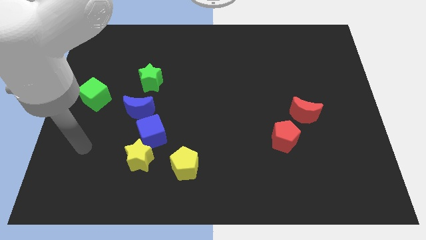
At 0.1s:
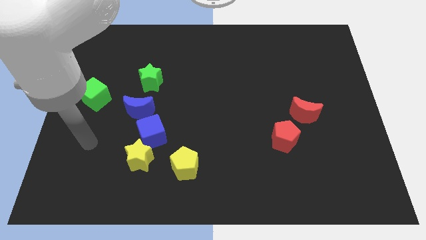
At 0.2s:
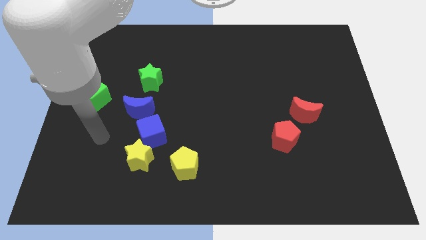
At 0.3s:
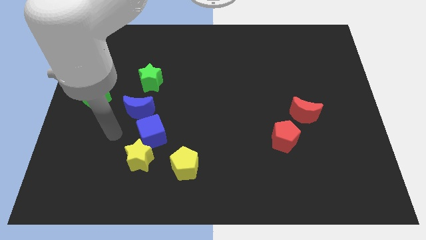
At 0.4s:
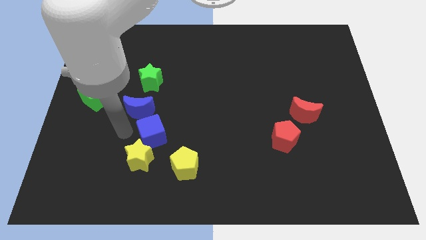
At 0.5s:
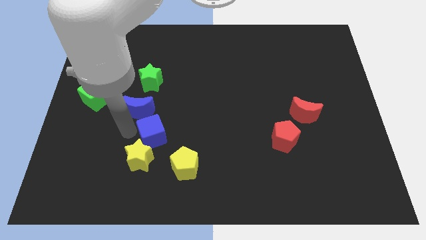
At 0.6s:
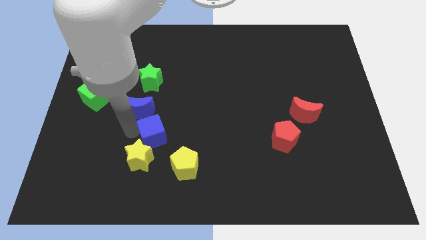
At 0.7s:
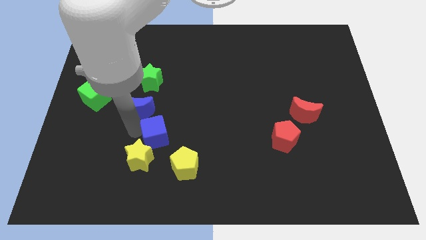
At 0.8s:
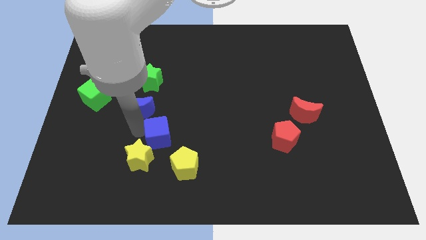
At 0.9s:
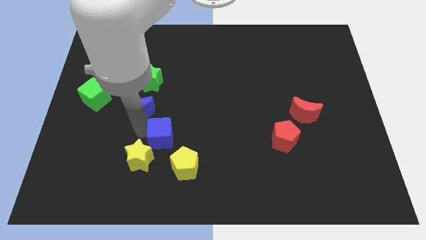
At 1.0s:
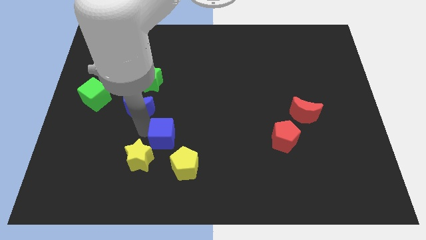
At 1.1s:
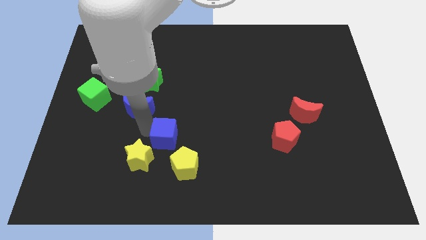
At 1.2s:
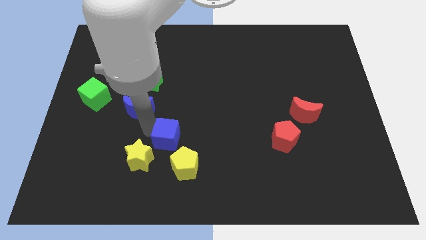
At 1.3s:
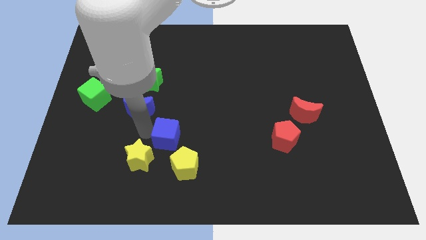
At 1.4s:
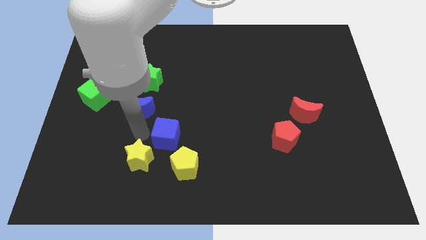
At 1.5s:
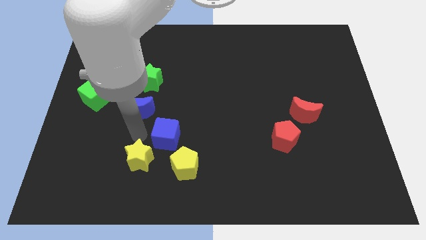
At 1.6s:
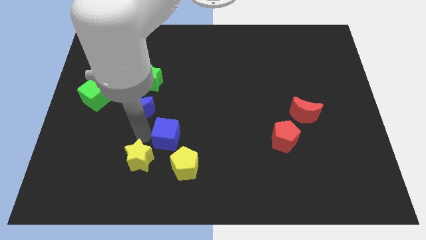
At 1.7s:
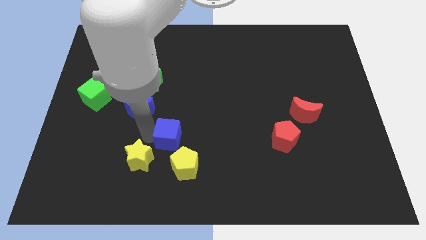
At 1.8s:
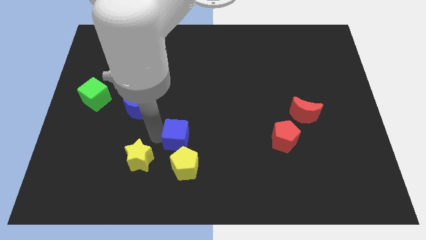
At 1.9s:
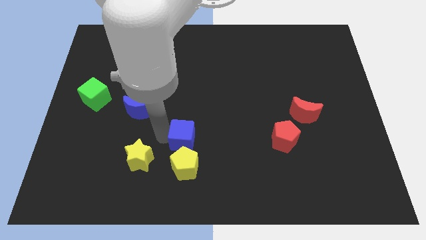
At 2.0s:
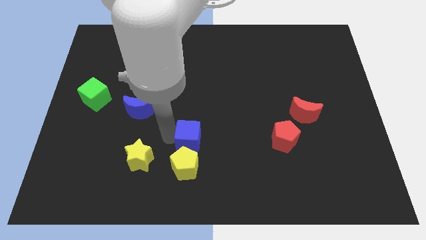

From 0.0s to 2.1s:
separate the blue cube from the yellow star and blue moon

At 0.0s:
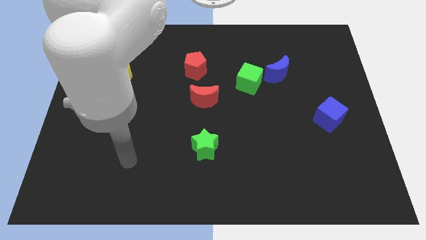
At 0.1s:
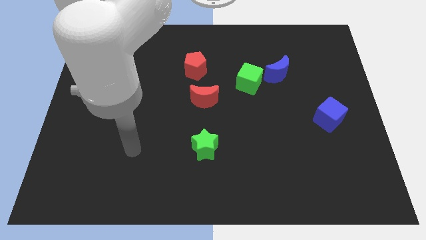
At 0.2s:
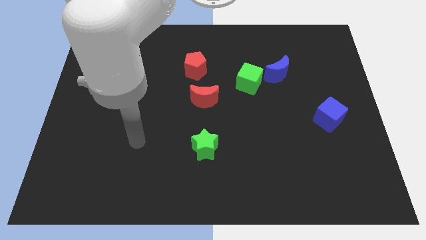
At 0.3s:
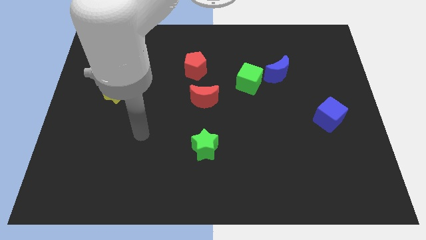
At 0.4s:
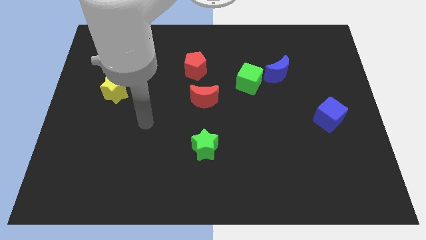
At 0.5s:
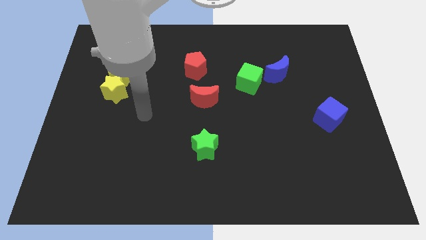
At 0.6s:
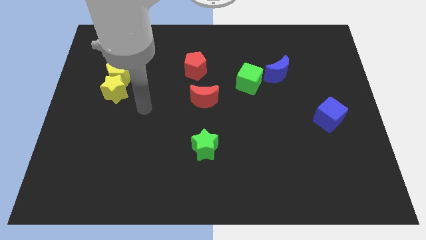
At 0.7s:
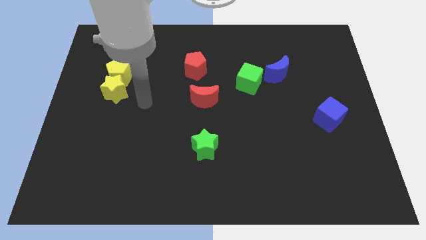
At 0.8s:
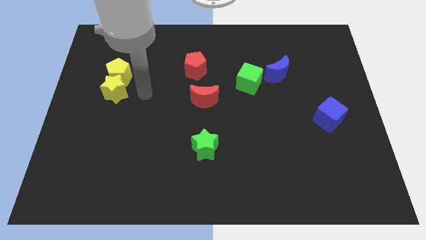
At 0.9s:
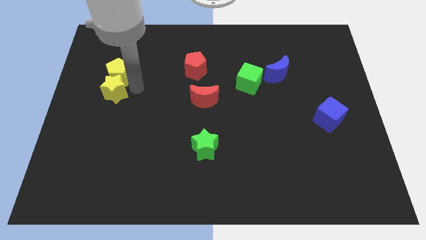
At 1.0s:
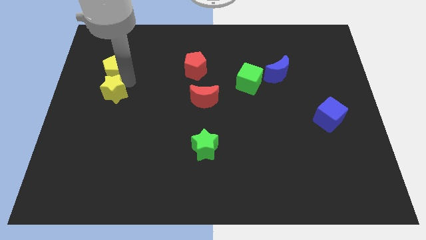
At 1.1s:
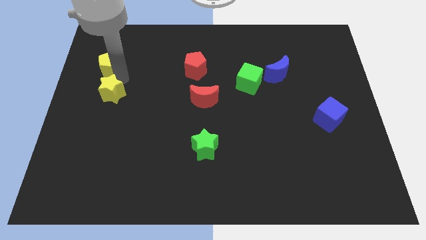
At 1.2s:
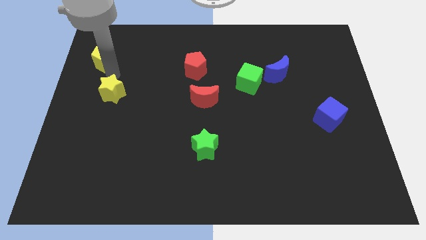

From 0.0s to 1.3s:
pull the yellow star apart from the yellow pentagon

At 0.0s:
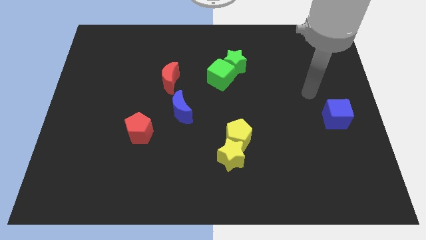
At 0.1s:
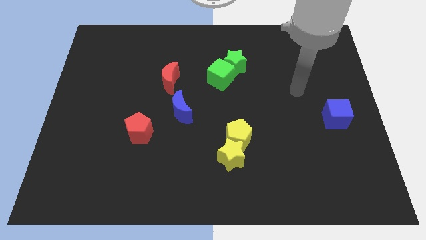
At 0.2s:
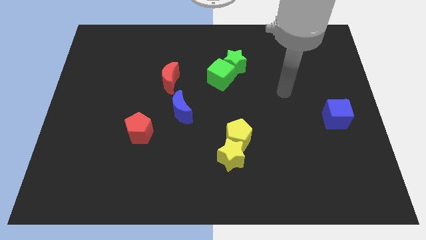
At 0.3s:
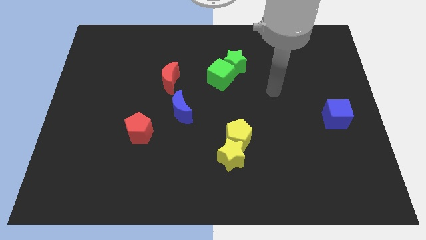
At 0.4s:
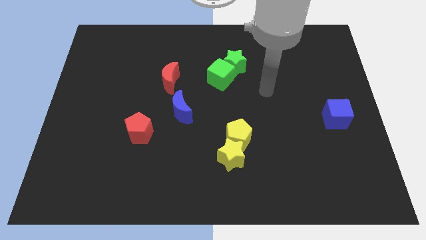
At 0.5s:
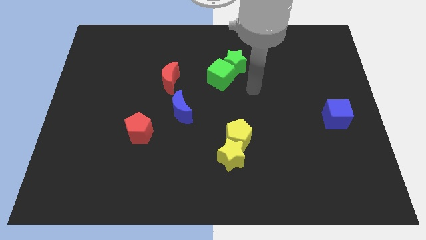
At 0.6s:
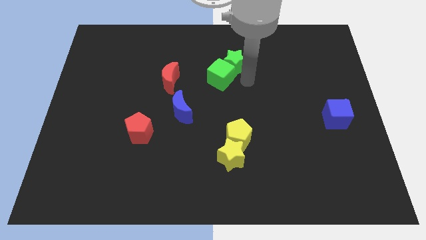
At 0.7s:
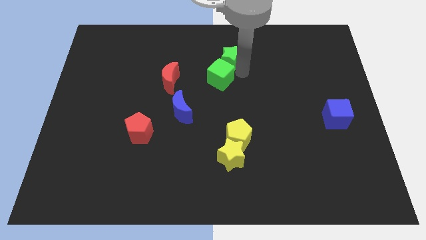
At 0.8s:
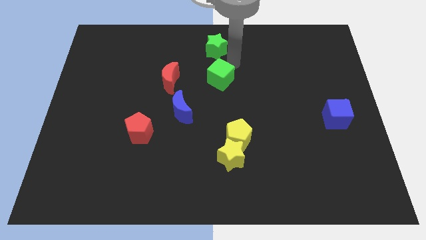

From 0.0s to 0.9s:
move the green cube away from the green star

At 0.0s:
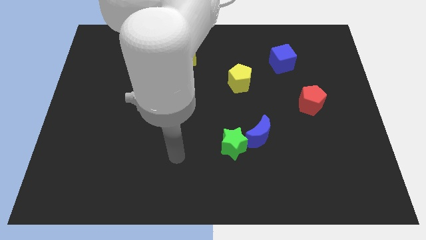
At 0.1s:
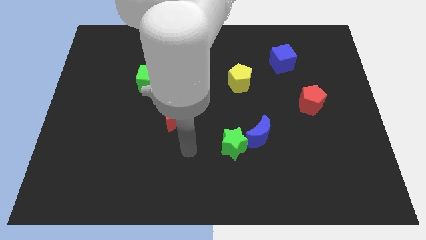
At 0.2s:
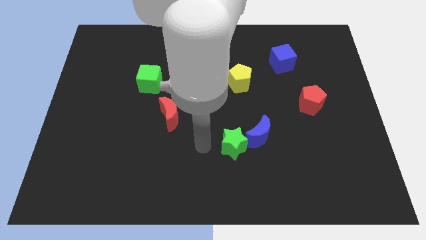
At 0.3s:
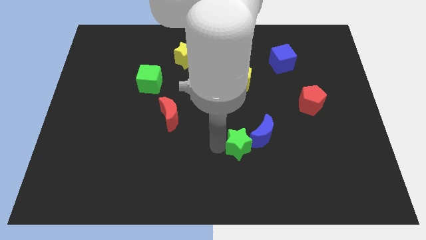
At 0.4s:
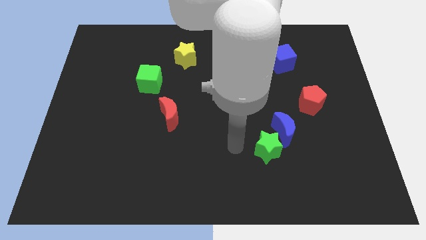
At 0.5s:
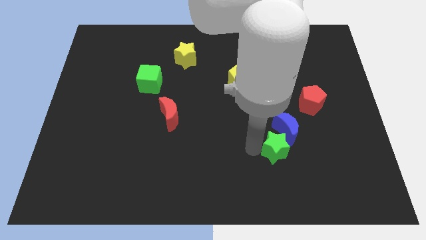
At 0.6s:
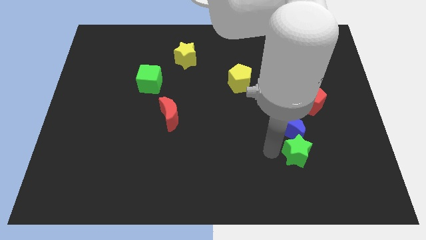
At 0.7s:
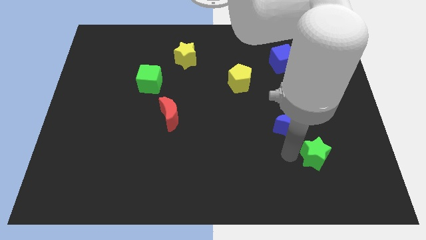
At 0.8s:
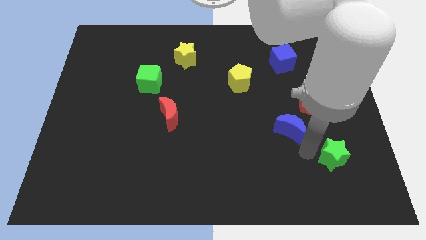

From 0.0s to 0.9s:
pull the blue moon apart from the green star

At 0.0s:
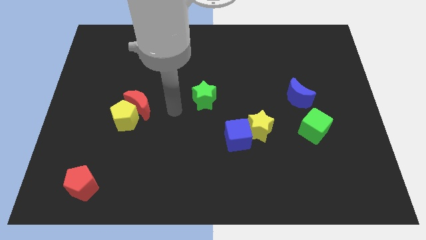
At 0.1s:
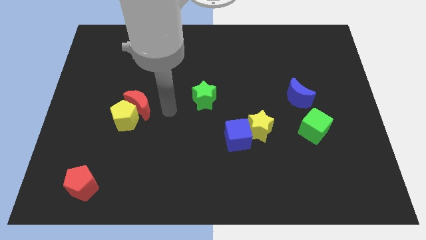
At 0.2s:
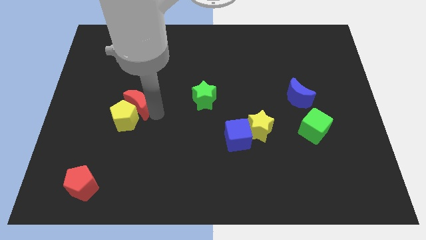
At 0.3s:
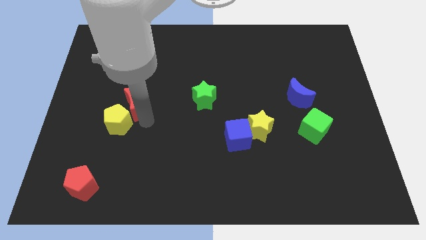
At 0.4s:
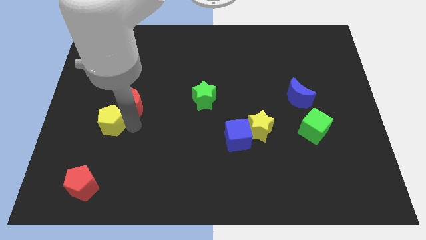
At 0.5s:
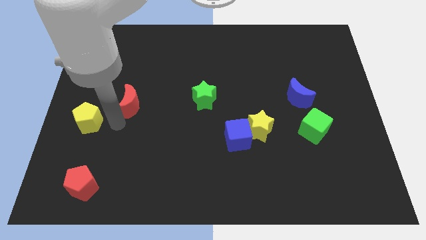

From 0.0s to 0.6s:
move the red moon away from the yellow pentagon

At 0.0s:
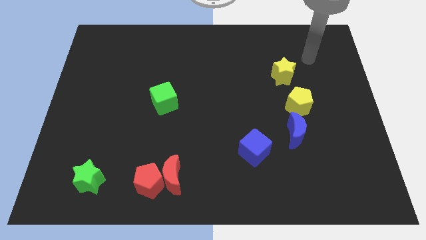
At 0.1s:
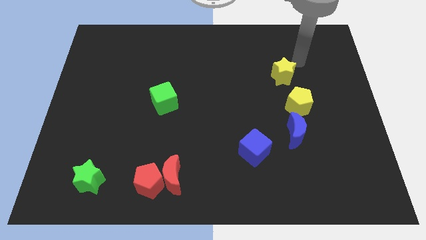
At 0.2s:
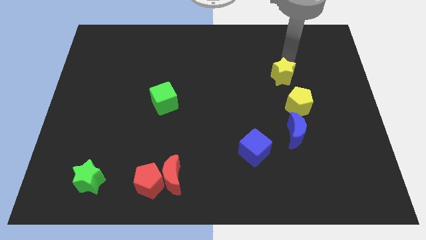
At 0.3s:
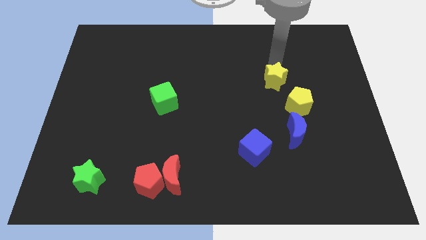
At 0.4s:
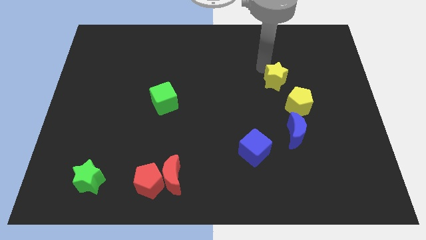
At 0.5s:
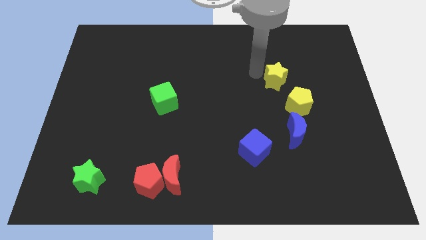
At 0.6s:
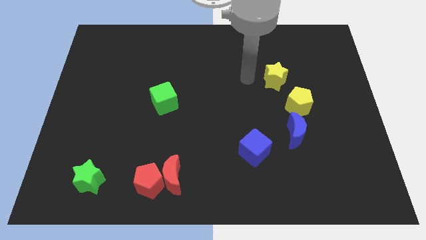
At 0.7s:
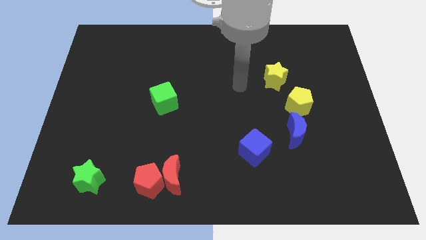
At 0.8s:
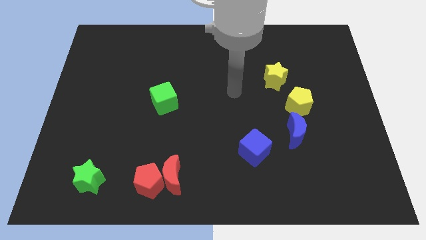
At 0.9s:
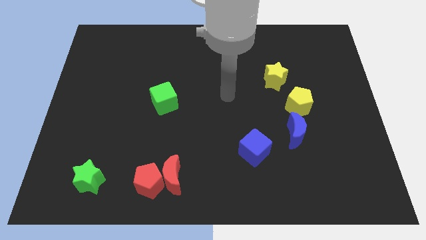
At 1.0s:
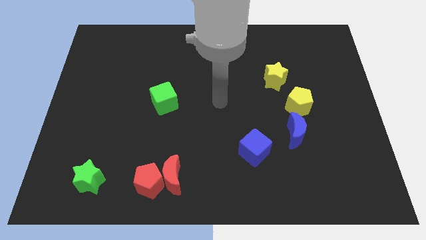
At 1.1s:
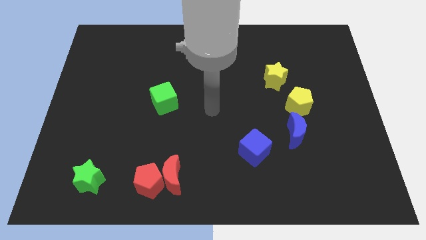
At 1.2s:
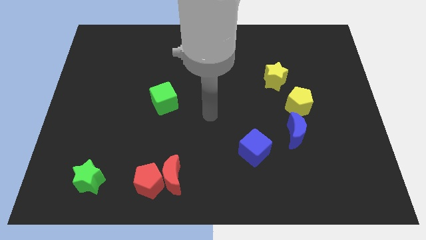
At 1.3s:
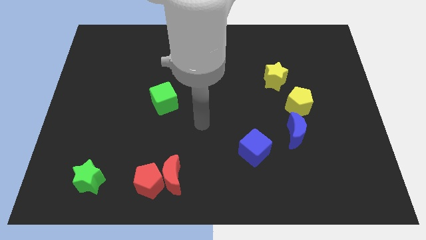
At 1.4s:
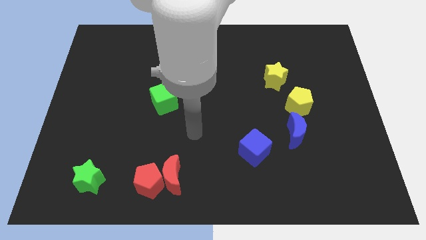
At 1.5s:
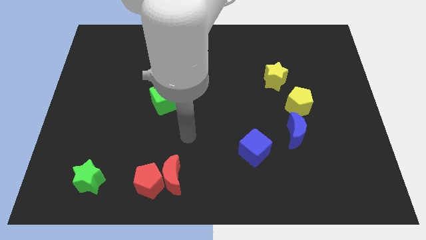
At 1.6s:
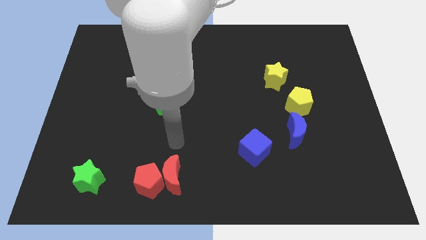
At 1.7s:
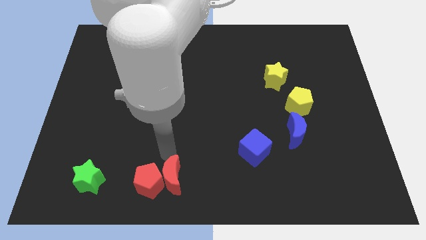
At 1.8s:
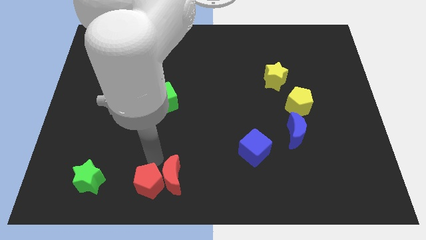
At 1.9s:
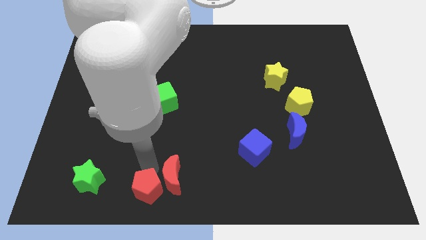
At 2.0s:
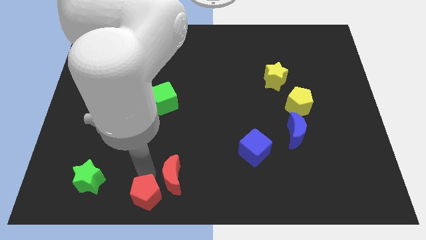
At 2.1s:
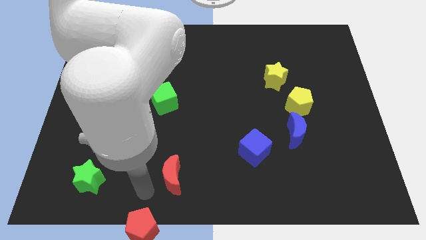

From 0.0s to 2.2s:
move the red moon away from the red pentagon

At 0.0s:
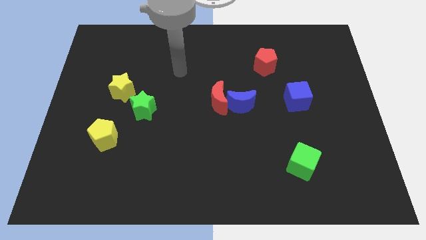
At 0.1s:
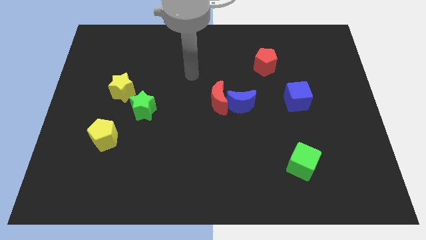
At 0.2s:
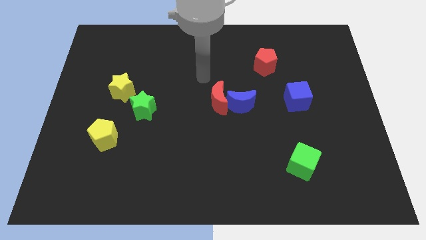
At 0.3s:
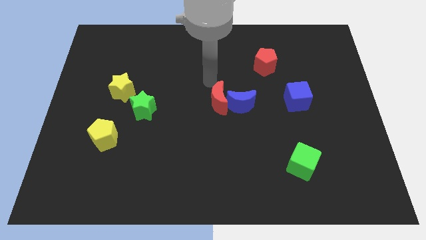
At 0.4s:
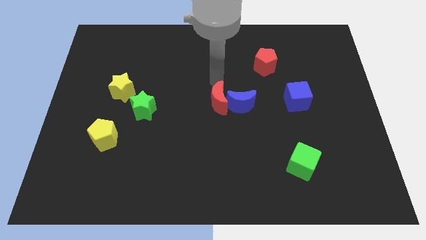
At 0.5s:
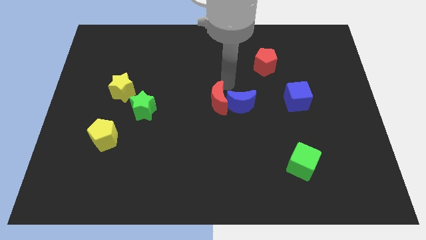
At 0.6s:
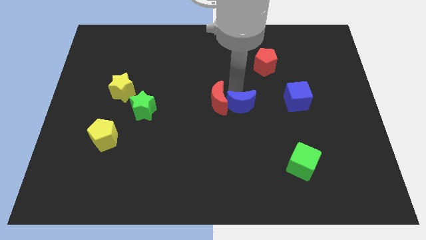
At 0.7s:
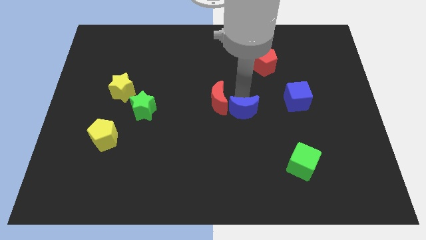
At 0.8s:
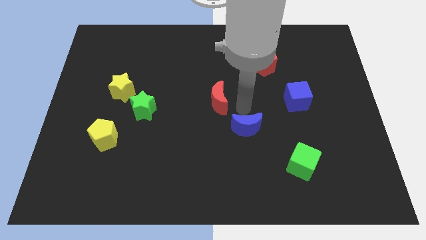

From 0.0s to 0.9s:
separate the red moon from the blue moon

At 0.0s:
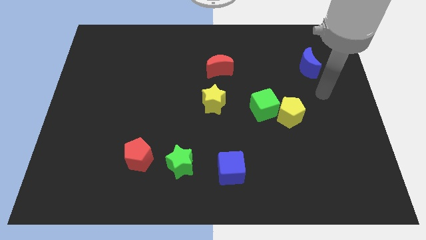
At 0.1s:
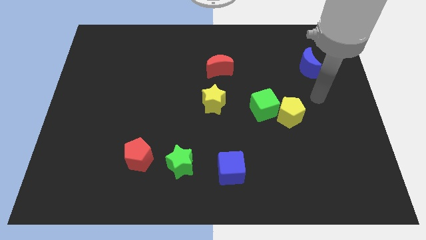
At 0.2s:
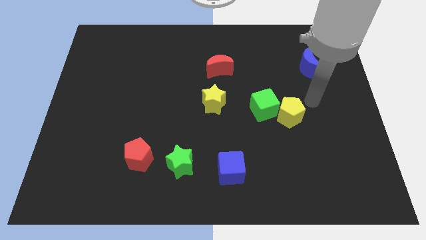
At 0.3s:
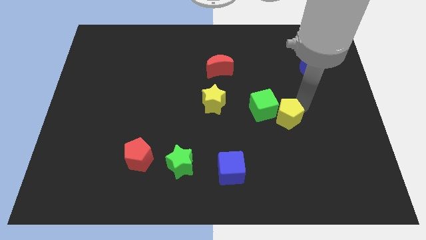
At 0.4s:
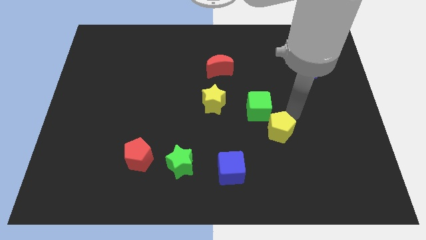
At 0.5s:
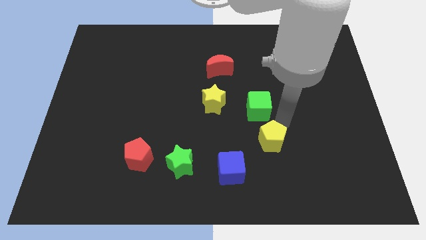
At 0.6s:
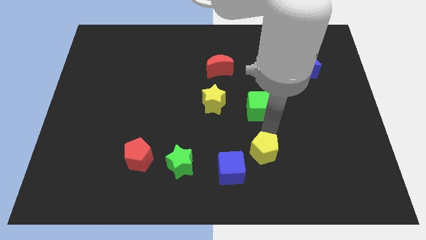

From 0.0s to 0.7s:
separate the green cube from the yellow pentagon
